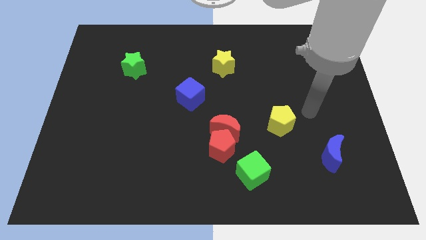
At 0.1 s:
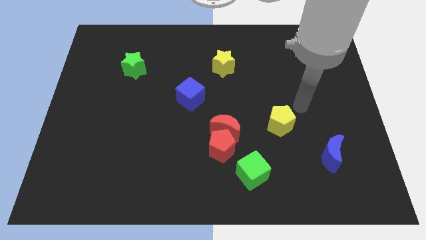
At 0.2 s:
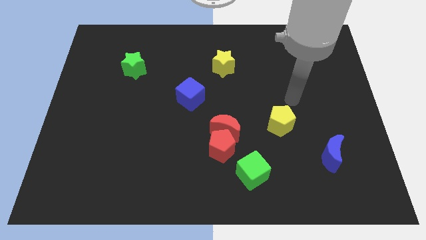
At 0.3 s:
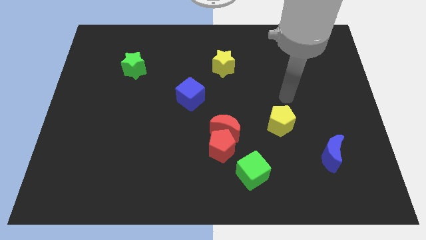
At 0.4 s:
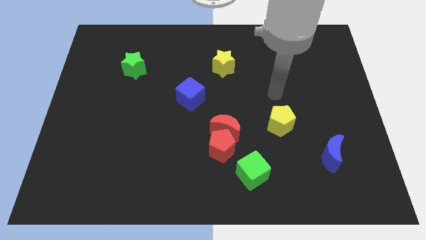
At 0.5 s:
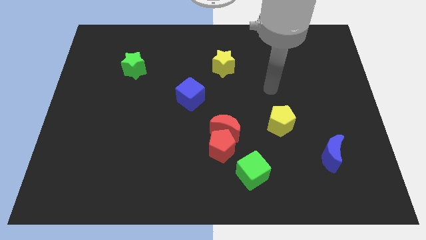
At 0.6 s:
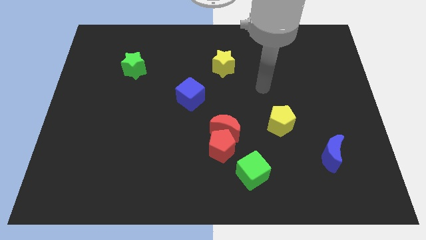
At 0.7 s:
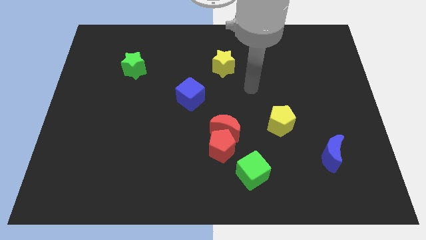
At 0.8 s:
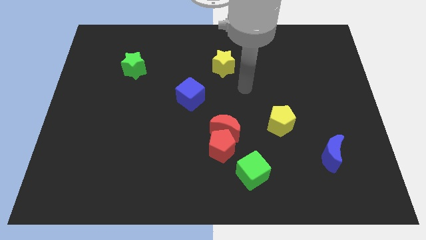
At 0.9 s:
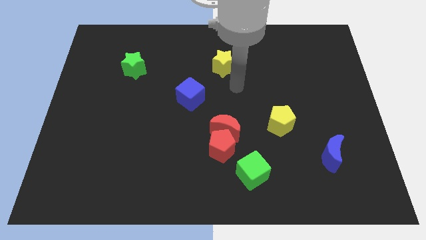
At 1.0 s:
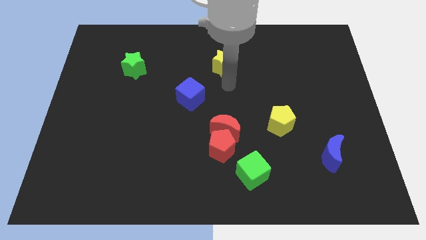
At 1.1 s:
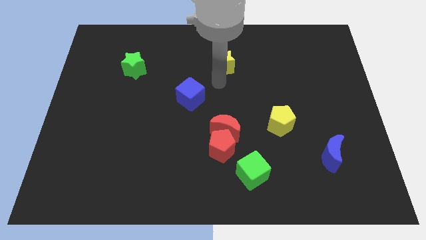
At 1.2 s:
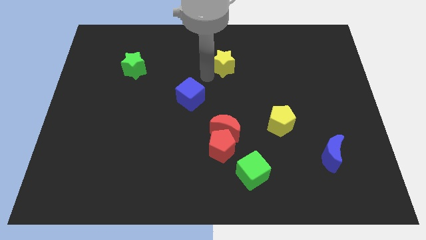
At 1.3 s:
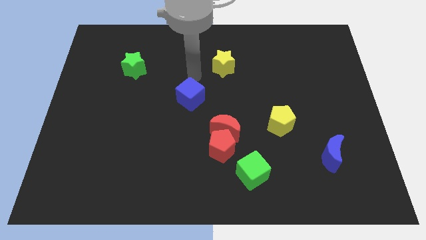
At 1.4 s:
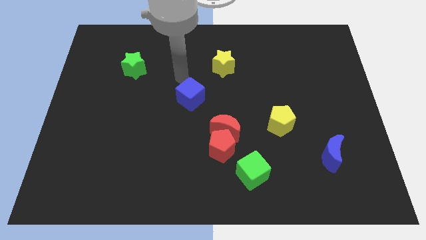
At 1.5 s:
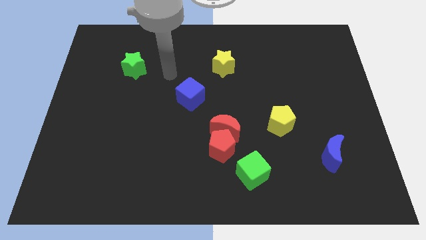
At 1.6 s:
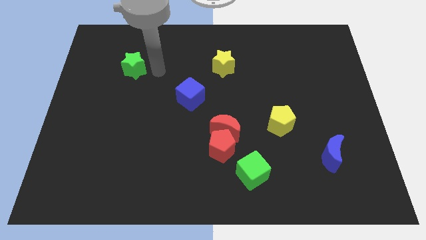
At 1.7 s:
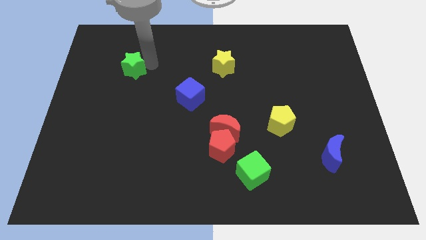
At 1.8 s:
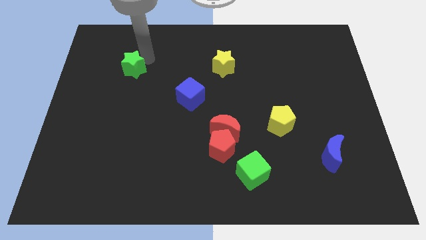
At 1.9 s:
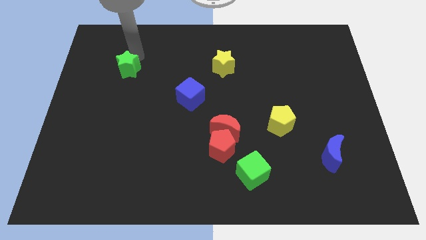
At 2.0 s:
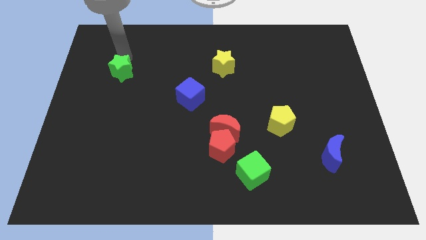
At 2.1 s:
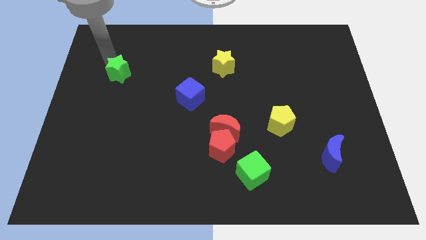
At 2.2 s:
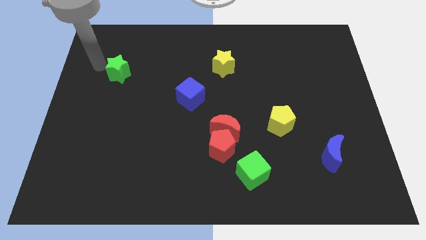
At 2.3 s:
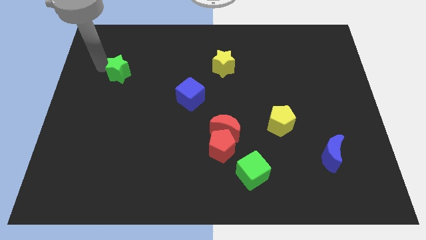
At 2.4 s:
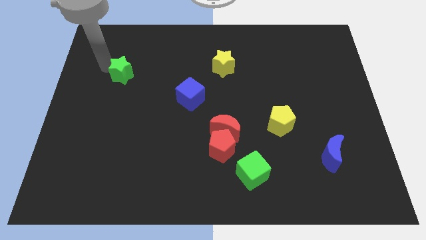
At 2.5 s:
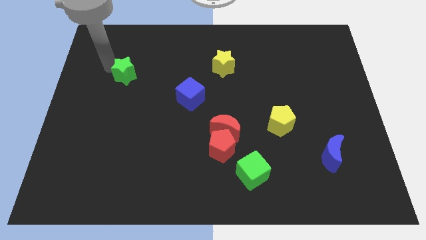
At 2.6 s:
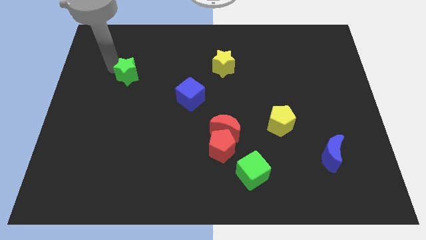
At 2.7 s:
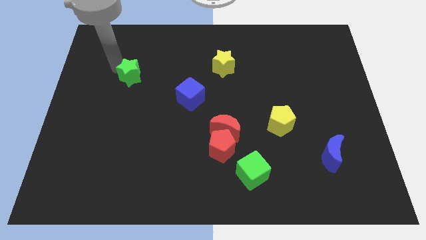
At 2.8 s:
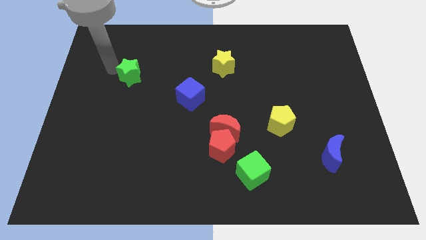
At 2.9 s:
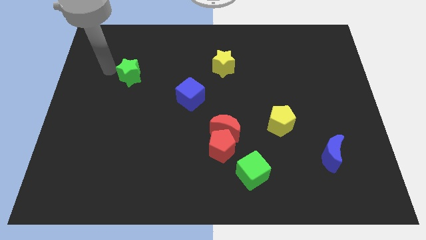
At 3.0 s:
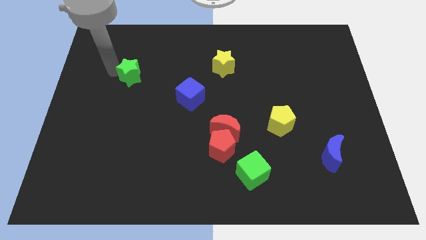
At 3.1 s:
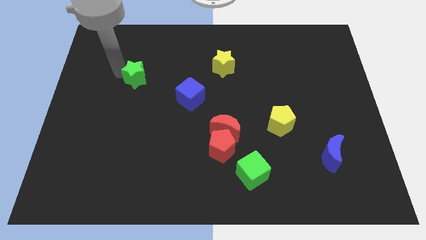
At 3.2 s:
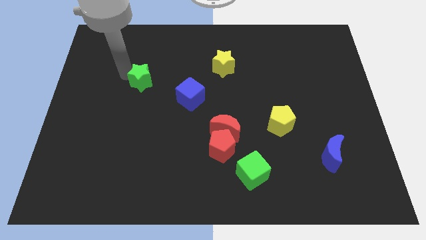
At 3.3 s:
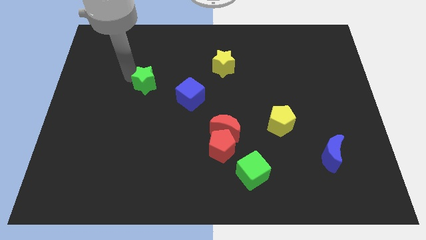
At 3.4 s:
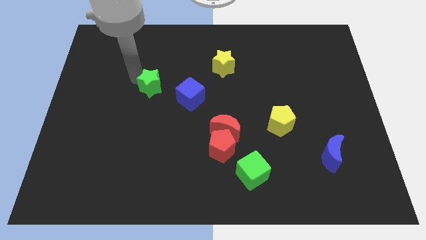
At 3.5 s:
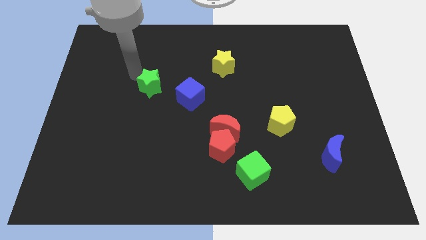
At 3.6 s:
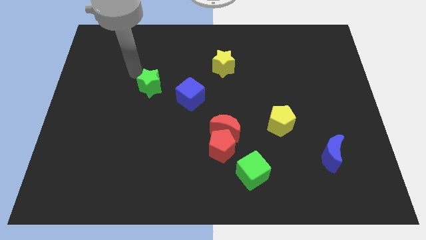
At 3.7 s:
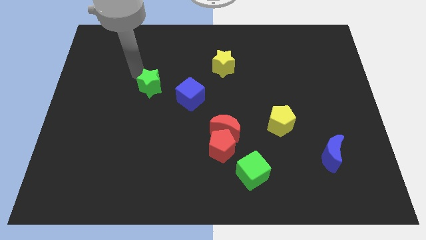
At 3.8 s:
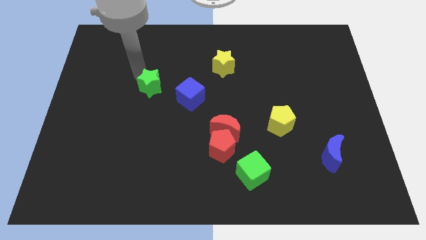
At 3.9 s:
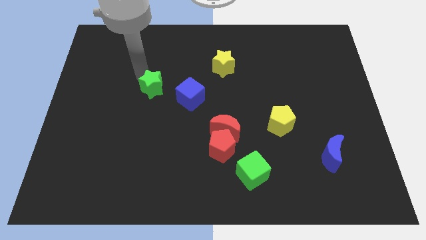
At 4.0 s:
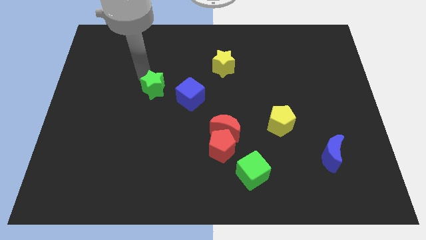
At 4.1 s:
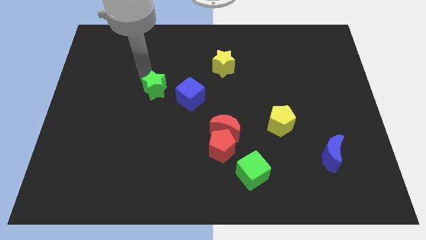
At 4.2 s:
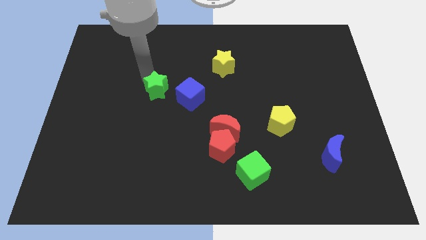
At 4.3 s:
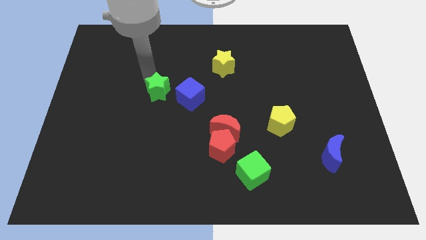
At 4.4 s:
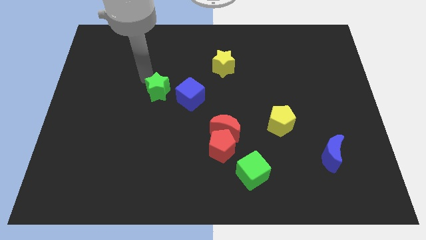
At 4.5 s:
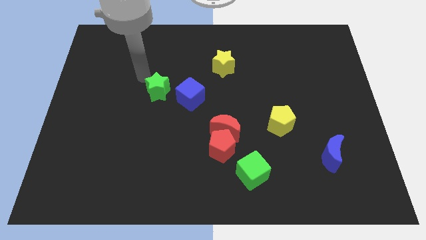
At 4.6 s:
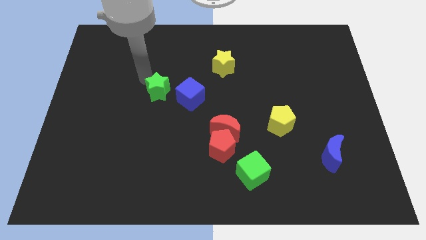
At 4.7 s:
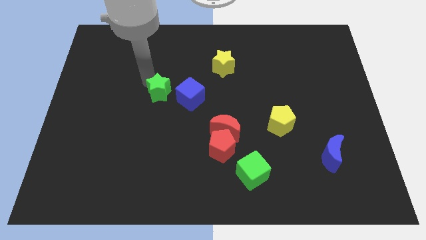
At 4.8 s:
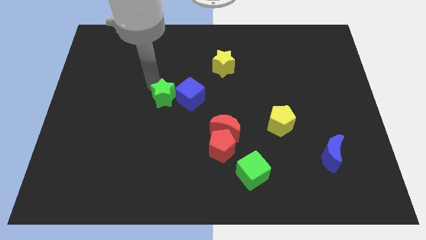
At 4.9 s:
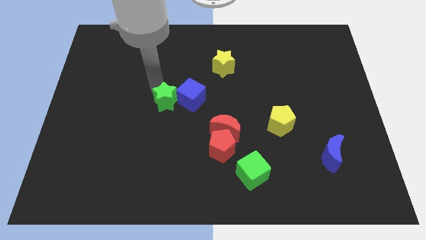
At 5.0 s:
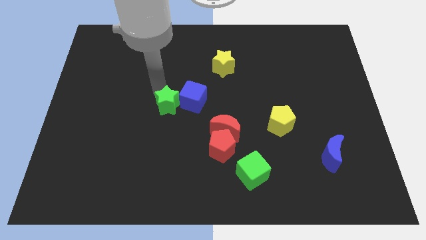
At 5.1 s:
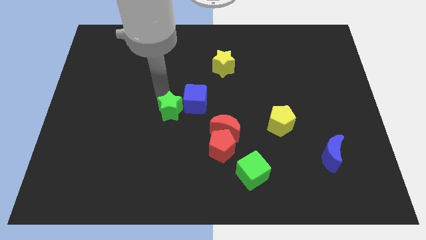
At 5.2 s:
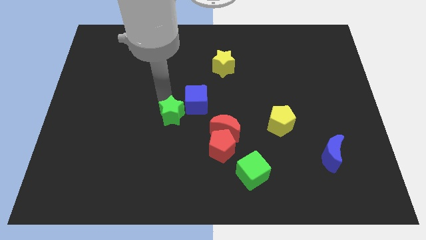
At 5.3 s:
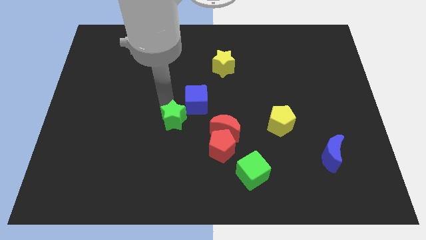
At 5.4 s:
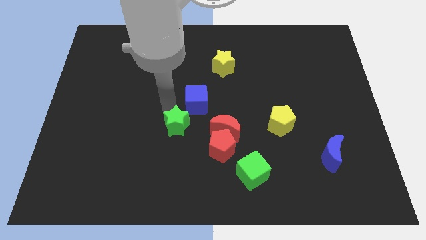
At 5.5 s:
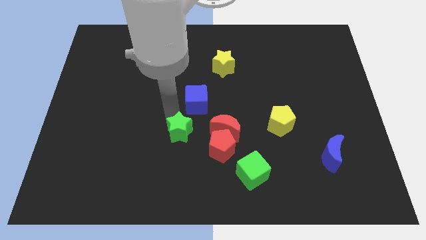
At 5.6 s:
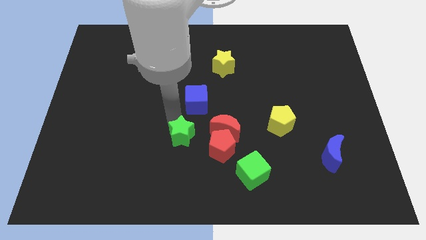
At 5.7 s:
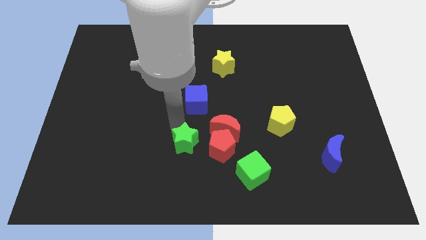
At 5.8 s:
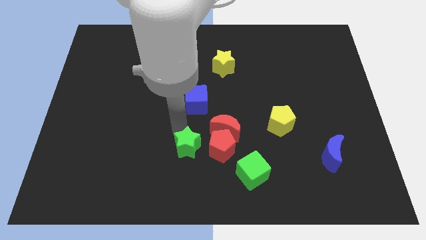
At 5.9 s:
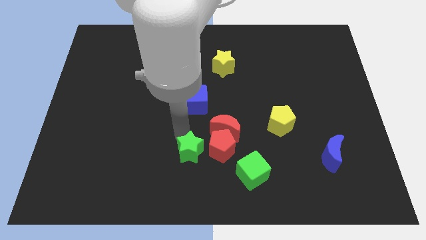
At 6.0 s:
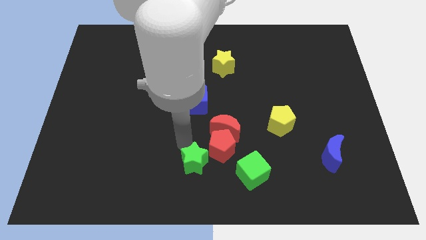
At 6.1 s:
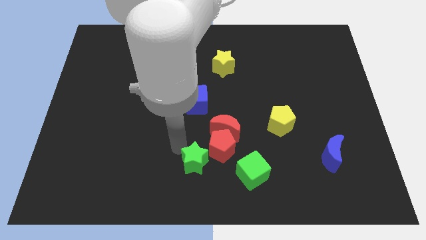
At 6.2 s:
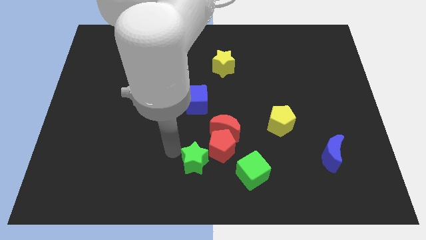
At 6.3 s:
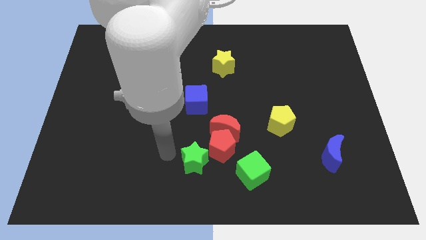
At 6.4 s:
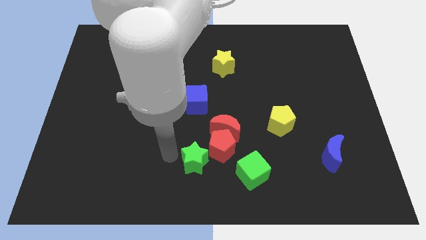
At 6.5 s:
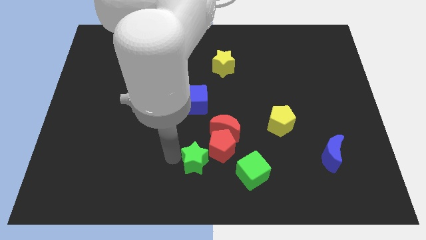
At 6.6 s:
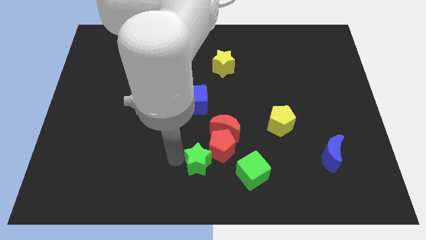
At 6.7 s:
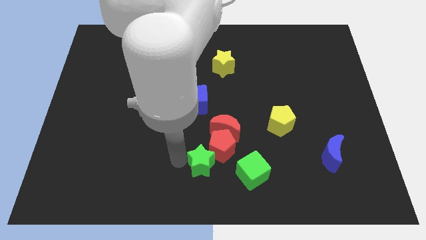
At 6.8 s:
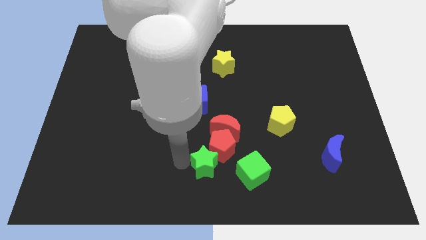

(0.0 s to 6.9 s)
push the green star to the bottom of the red moon

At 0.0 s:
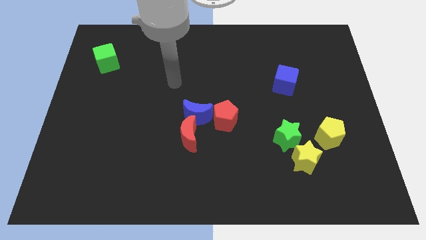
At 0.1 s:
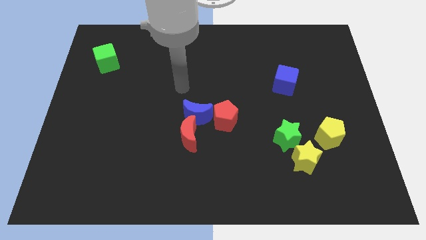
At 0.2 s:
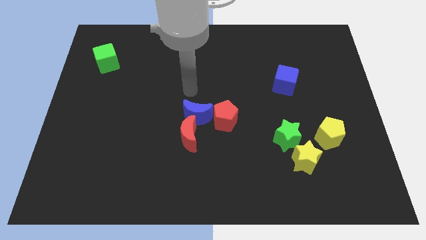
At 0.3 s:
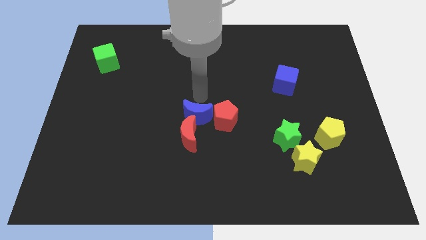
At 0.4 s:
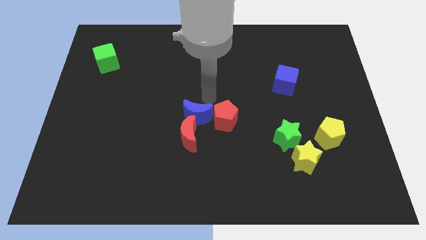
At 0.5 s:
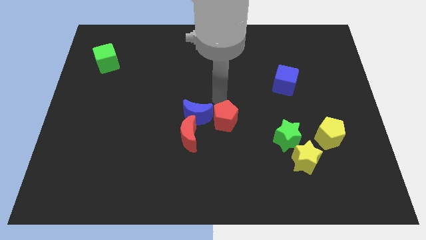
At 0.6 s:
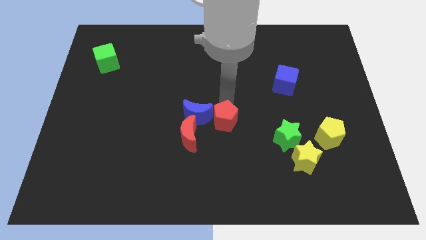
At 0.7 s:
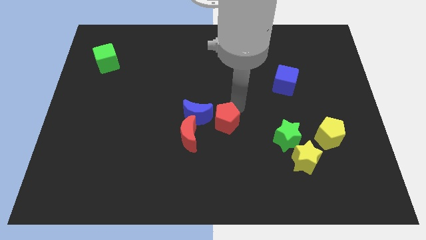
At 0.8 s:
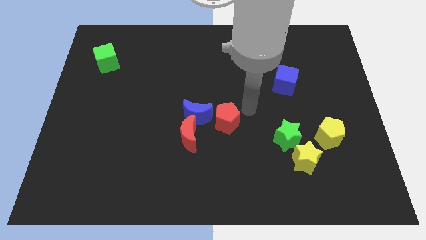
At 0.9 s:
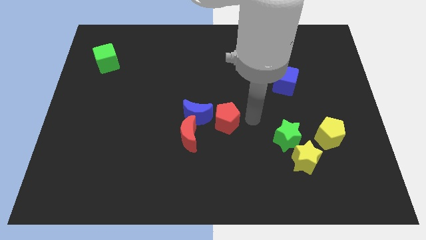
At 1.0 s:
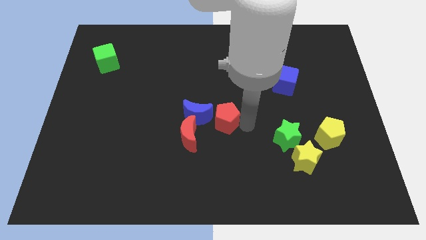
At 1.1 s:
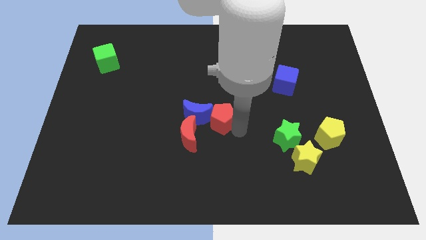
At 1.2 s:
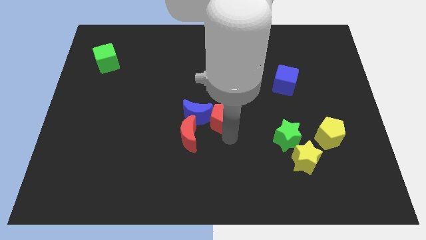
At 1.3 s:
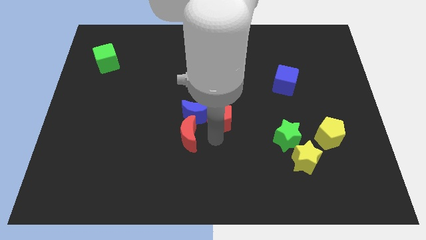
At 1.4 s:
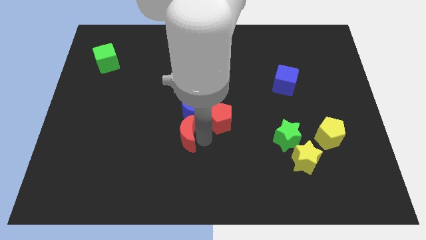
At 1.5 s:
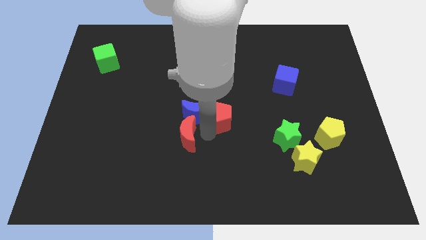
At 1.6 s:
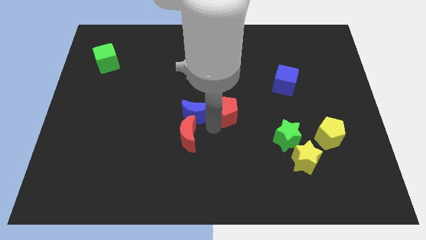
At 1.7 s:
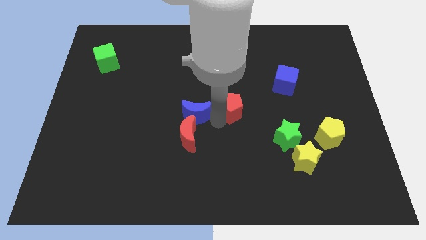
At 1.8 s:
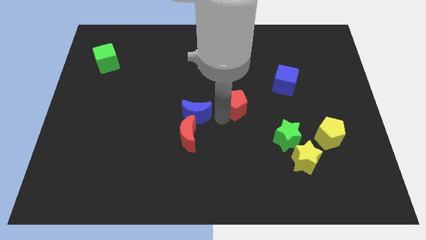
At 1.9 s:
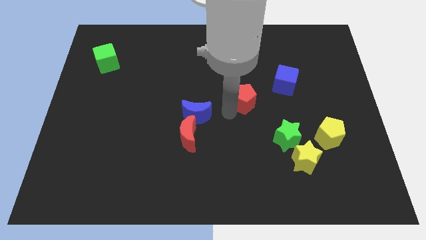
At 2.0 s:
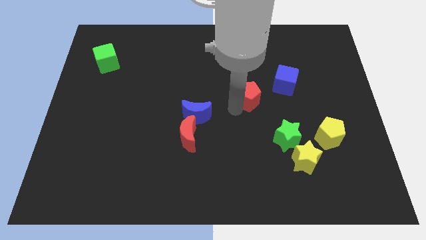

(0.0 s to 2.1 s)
put the red pentagon just left of the blue cube
